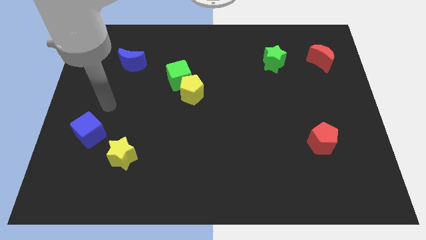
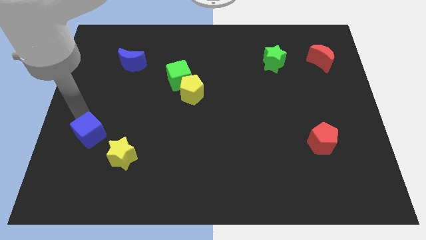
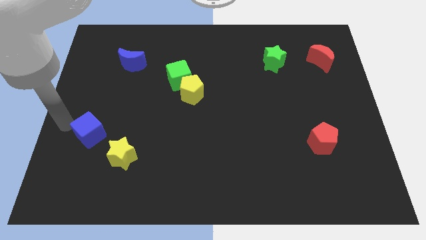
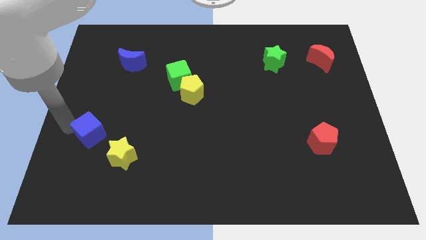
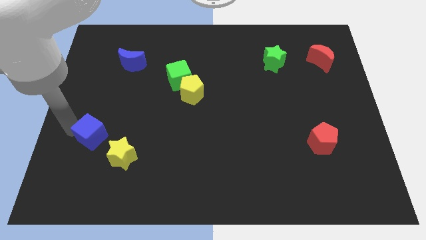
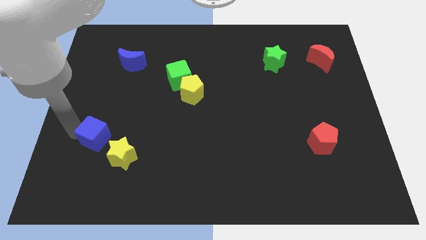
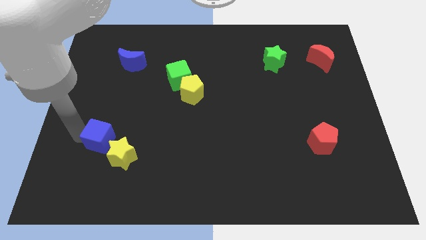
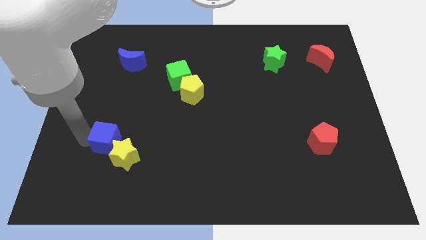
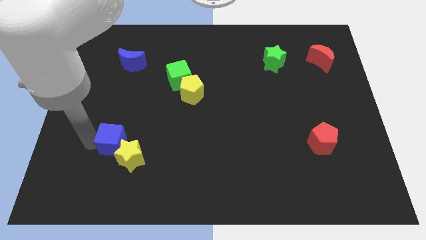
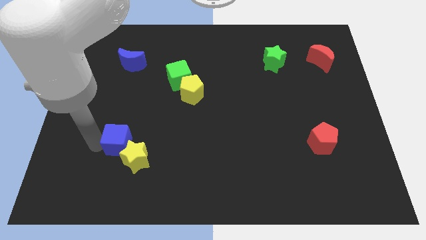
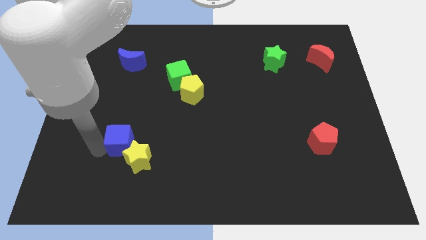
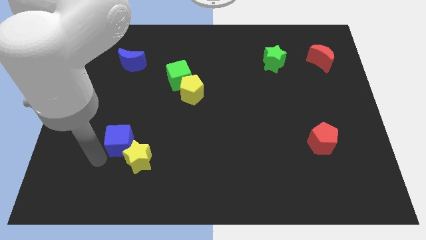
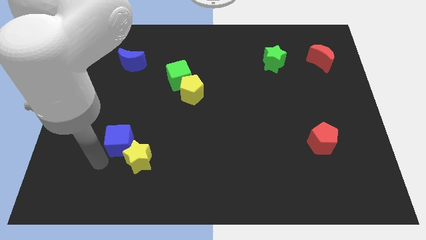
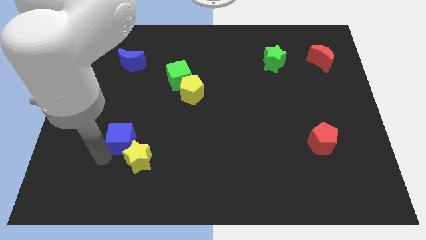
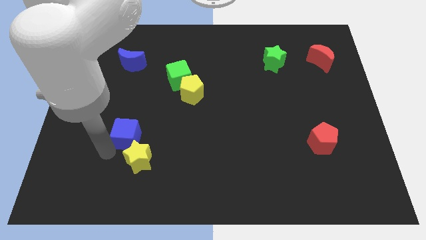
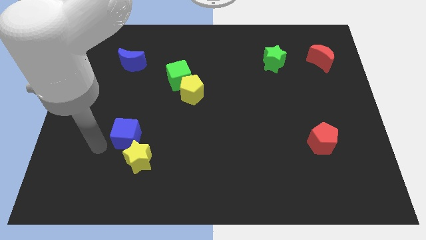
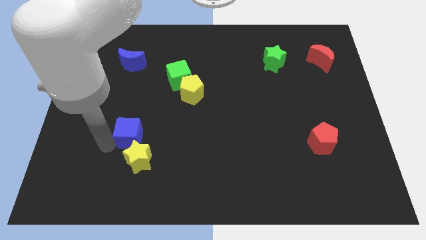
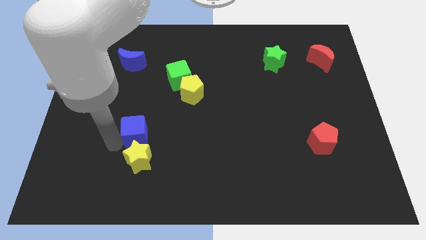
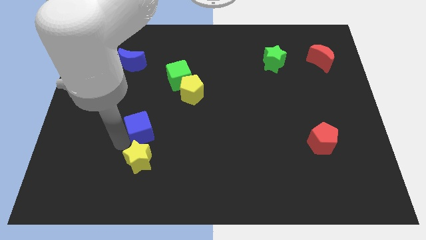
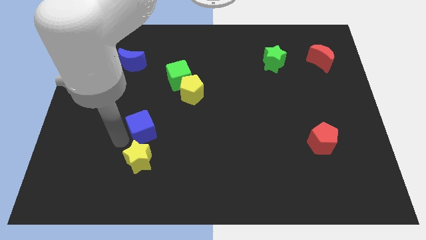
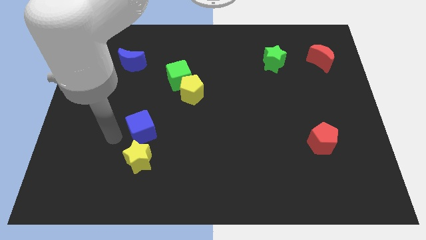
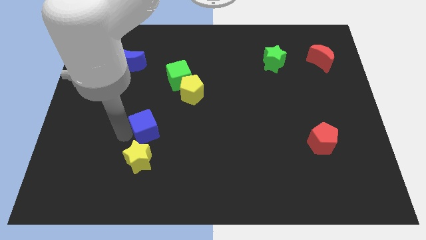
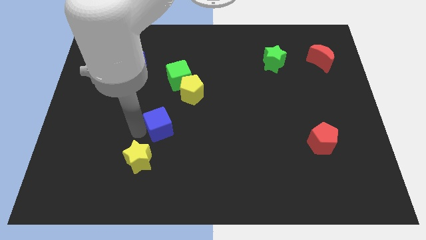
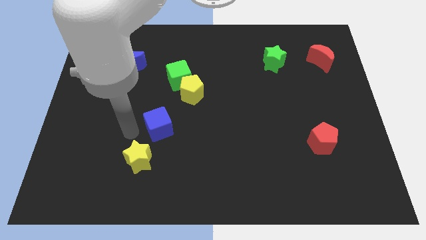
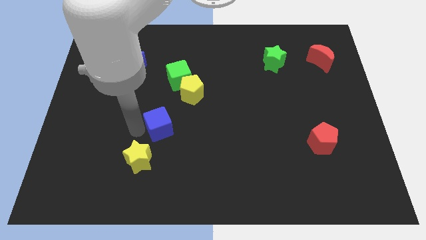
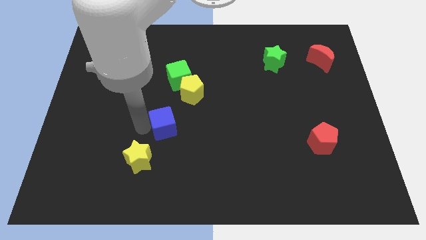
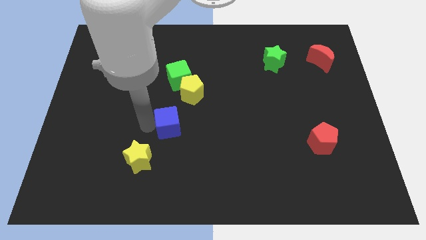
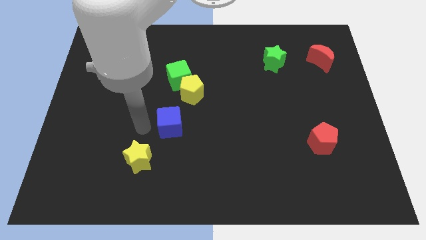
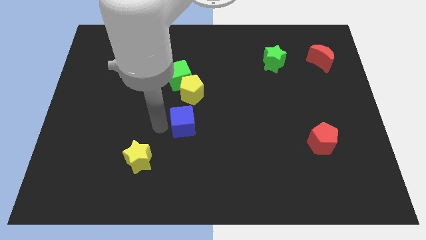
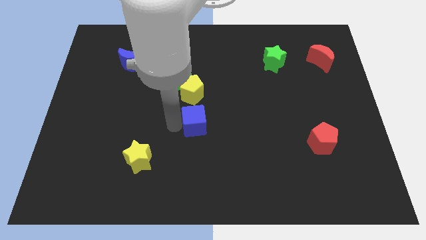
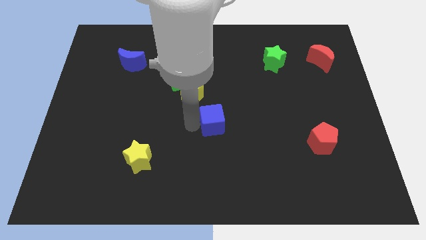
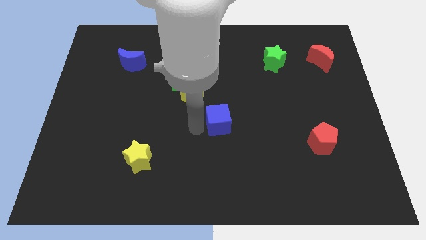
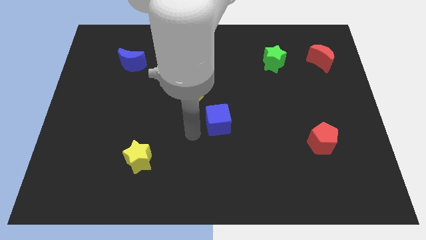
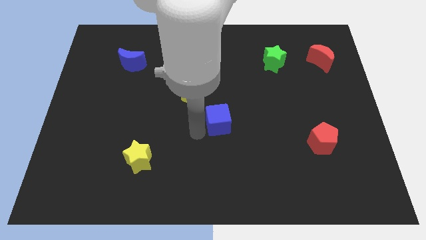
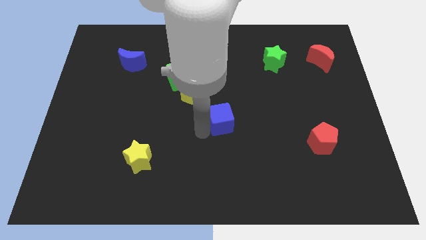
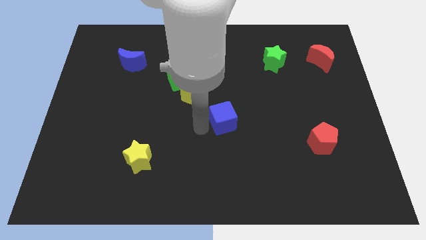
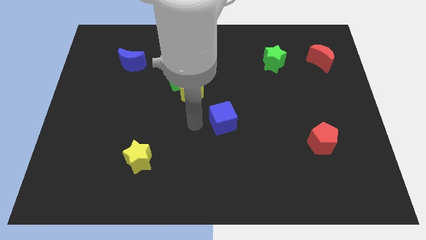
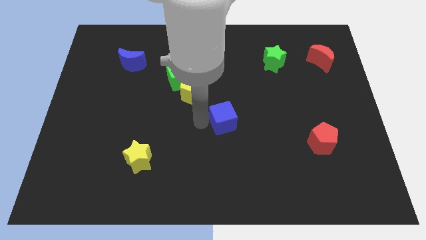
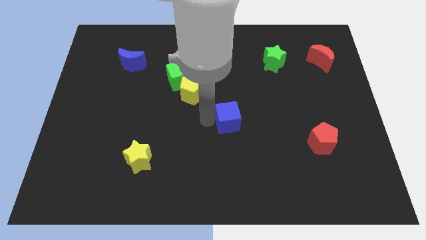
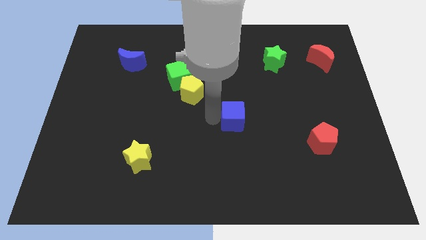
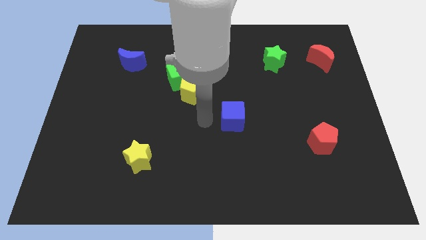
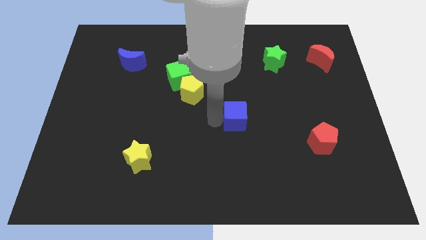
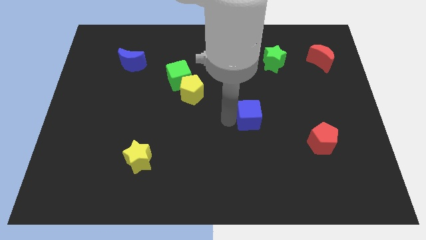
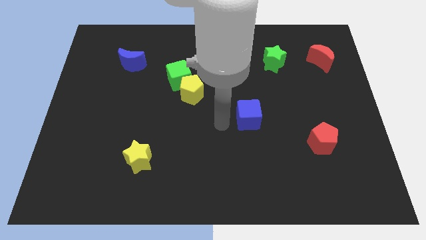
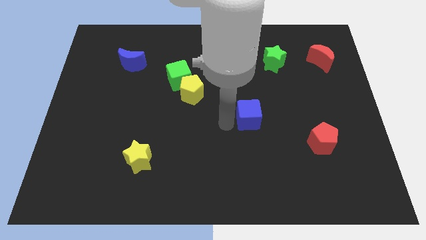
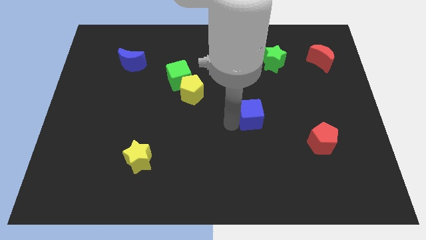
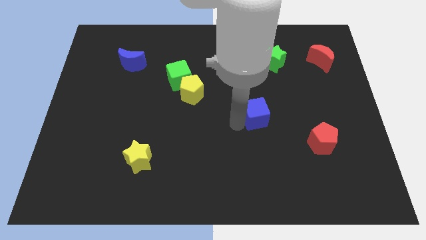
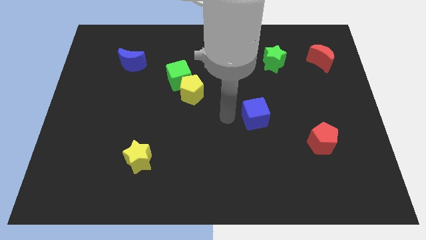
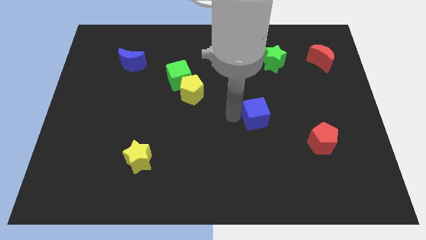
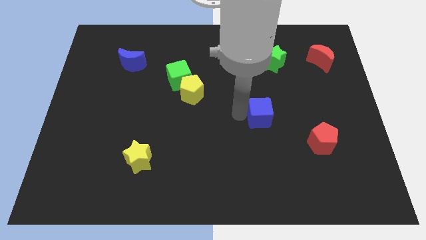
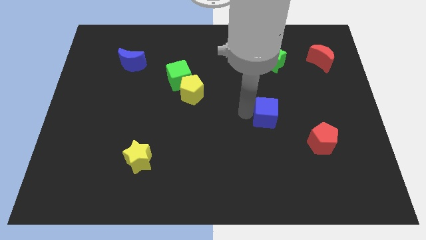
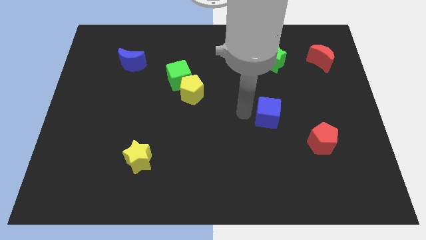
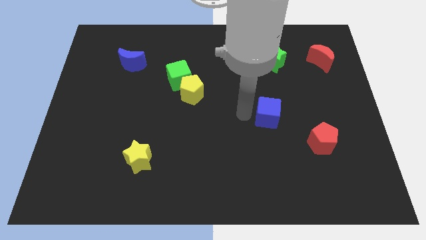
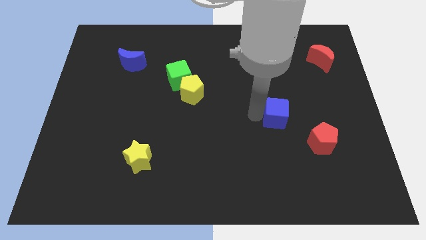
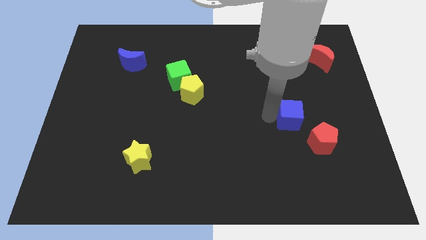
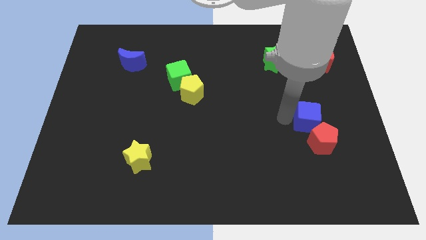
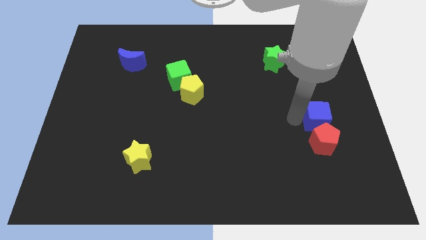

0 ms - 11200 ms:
move the blue cube to the top right of the red pentagon
